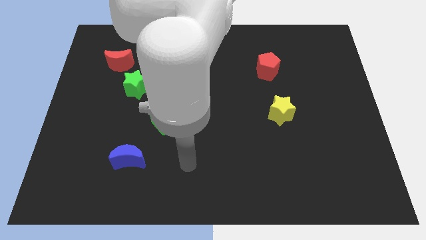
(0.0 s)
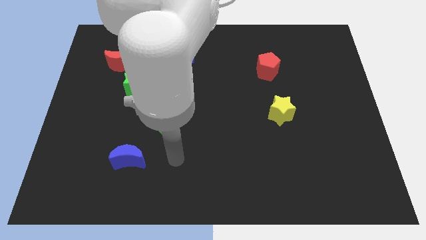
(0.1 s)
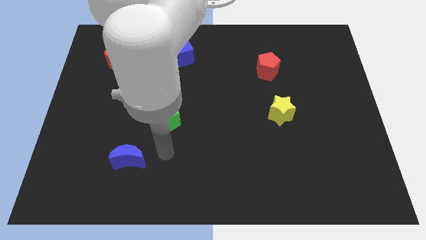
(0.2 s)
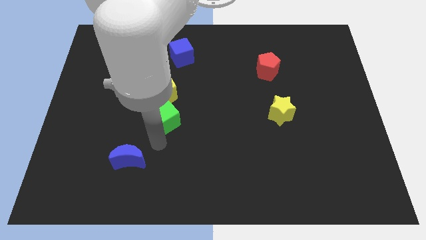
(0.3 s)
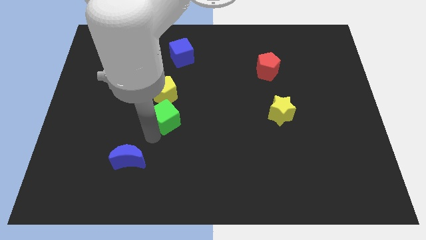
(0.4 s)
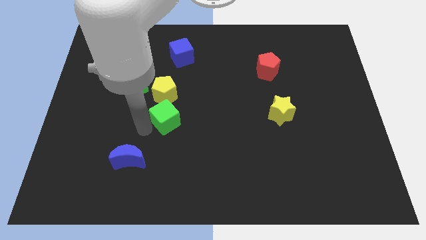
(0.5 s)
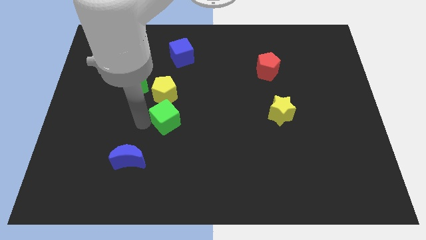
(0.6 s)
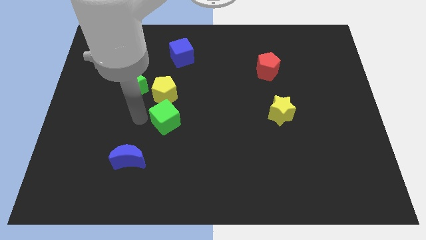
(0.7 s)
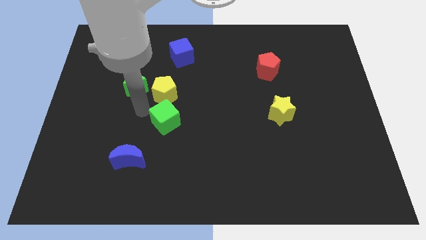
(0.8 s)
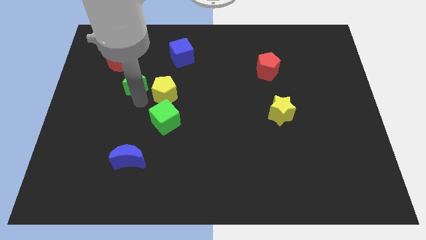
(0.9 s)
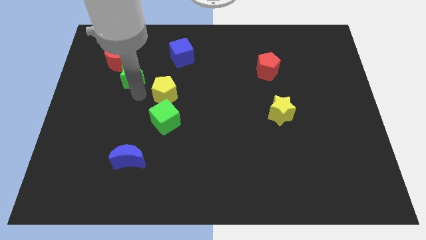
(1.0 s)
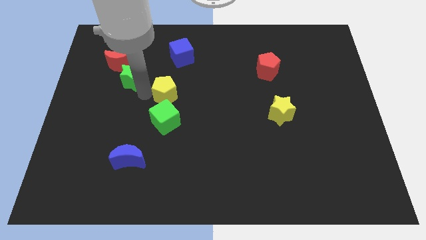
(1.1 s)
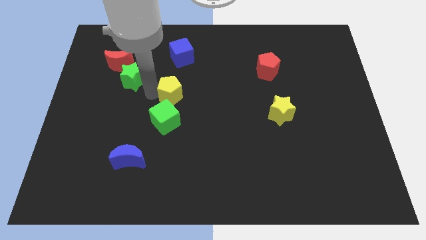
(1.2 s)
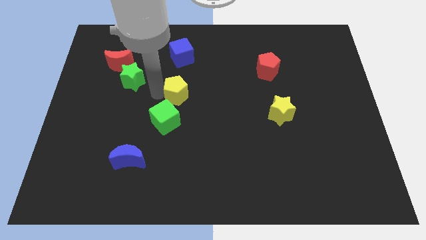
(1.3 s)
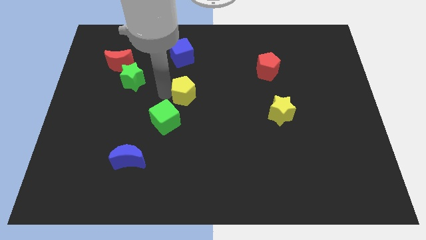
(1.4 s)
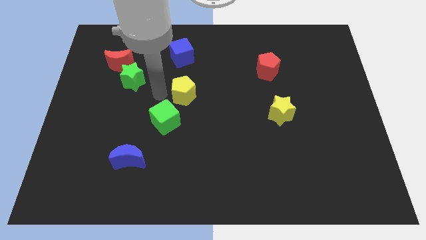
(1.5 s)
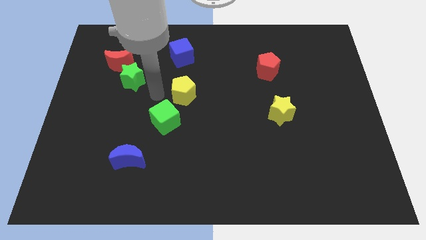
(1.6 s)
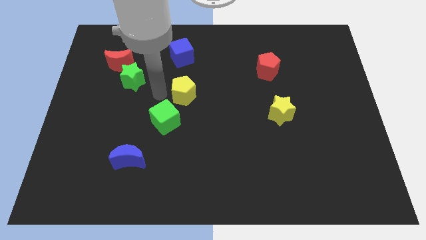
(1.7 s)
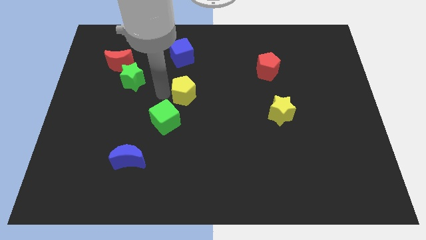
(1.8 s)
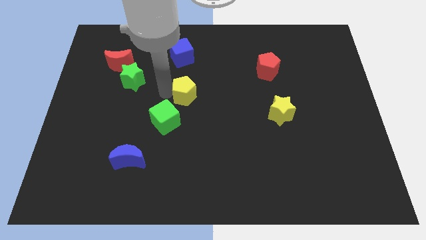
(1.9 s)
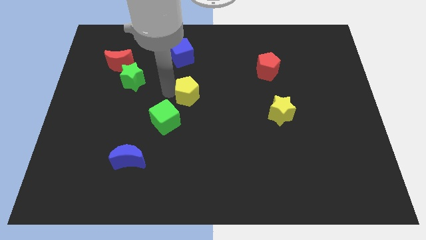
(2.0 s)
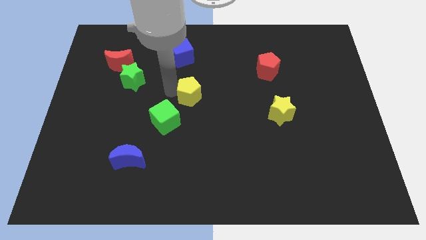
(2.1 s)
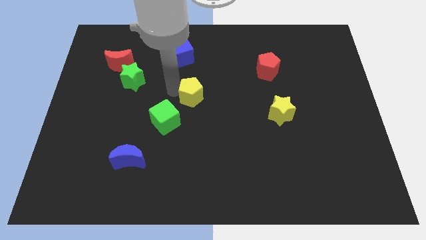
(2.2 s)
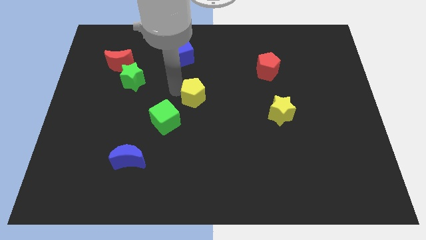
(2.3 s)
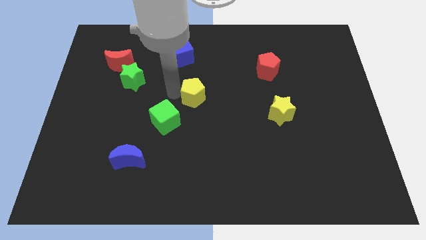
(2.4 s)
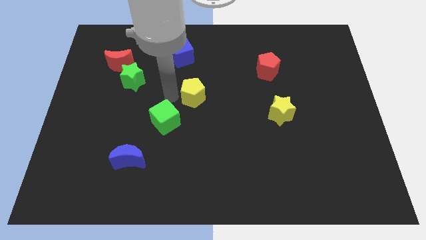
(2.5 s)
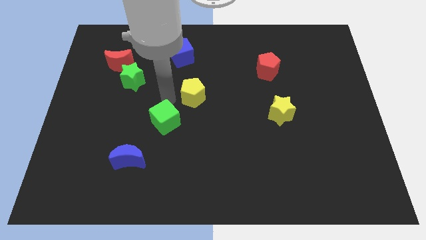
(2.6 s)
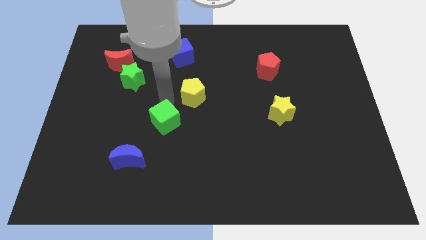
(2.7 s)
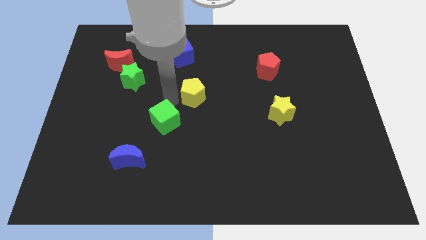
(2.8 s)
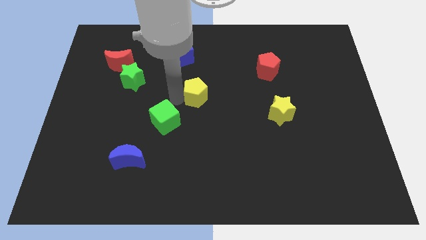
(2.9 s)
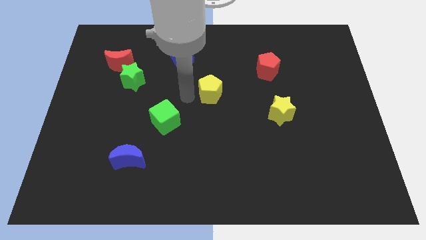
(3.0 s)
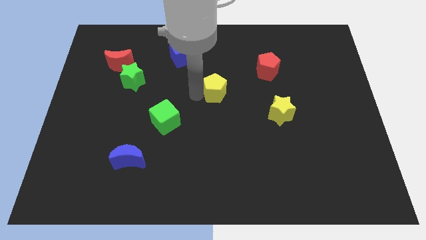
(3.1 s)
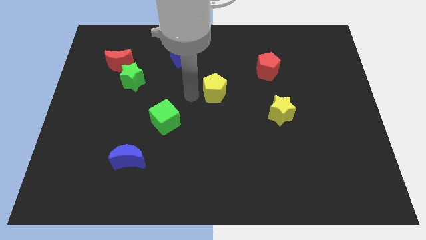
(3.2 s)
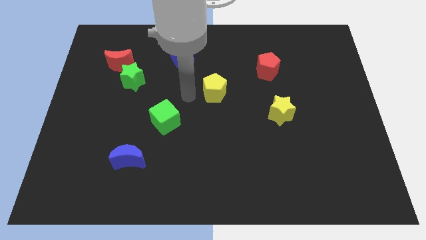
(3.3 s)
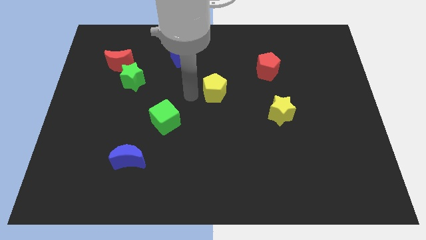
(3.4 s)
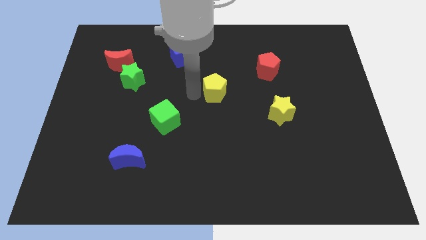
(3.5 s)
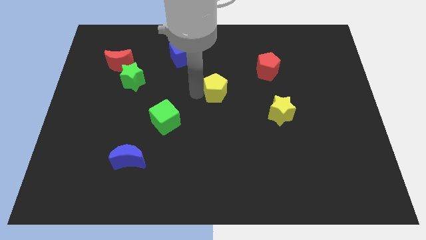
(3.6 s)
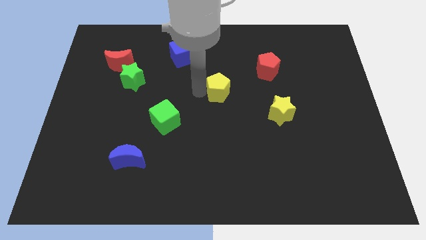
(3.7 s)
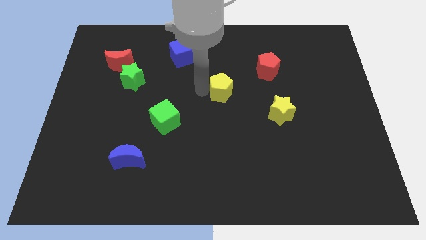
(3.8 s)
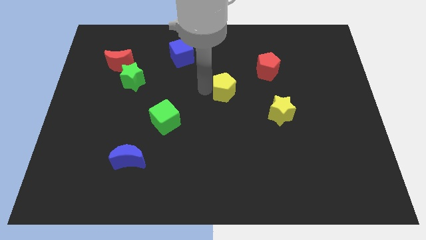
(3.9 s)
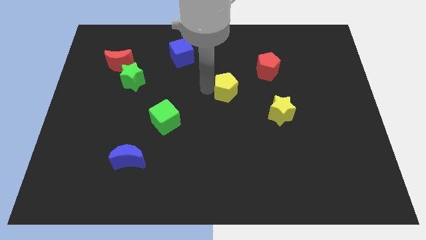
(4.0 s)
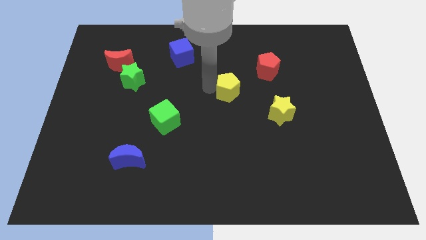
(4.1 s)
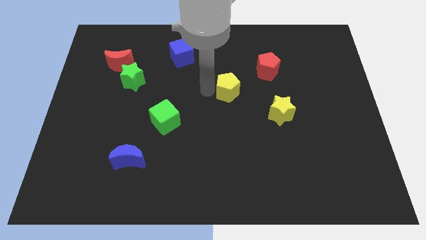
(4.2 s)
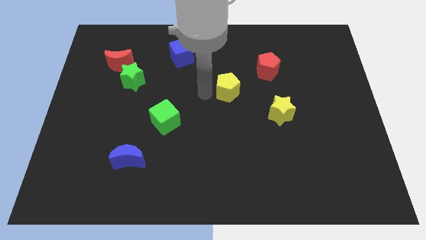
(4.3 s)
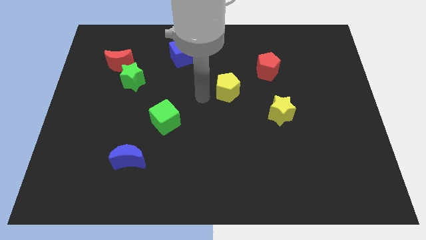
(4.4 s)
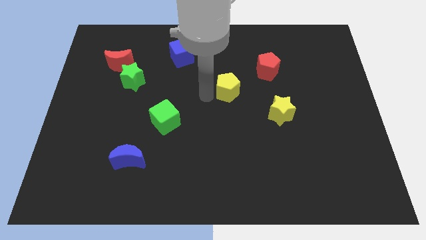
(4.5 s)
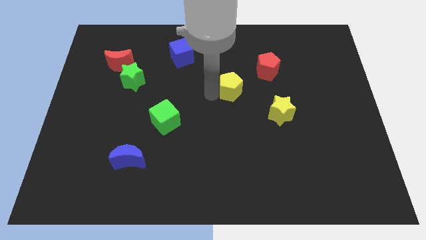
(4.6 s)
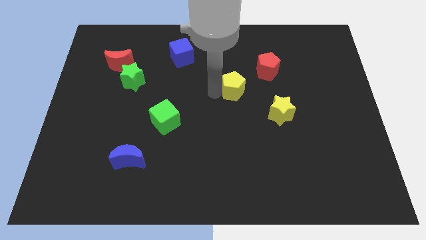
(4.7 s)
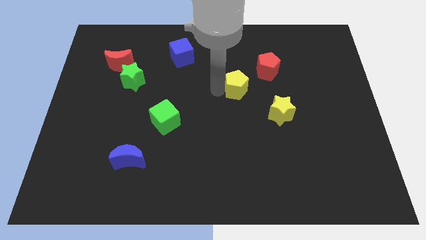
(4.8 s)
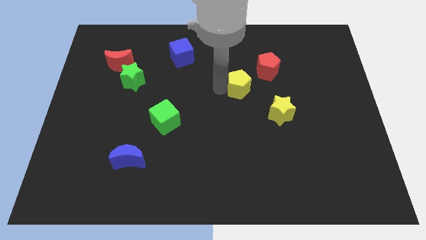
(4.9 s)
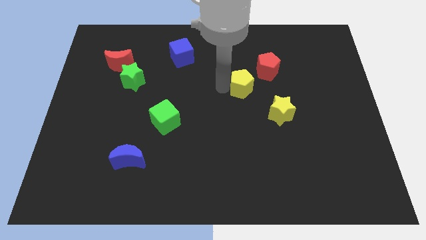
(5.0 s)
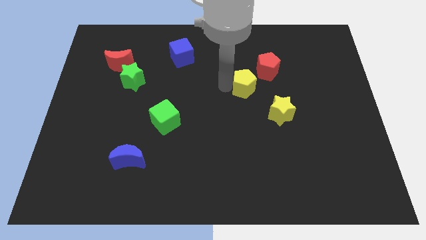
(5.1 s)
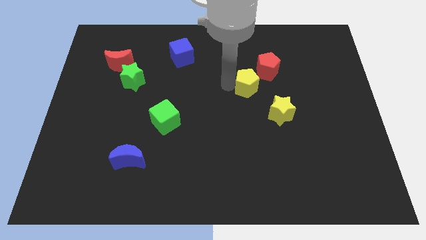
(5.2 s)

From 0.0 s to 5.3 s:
move the yellow pentagon to the right

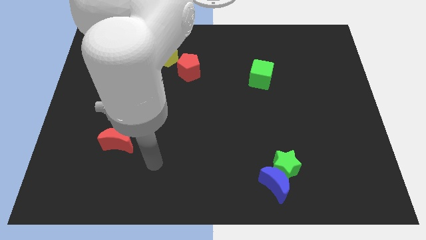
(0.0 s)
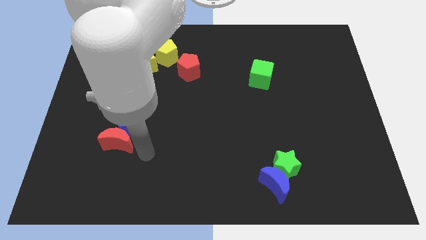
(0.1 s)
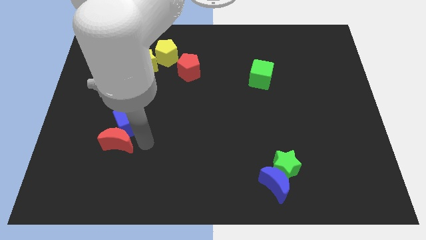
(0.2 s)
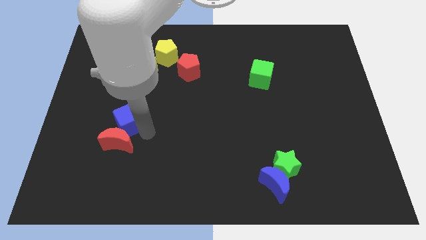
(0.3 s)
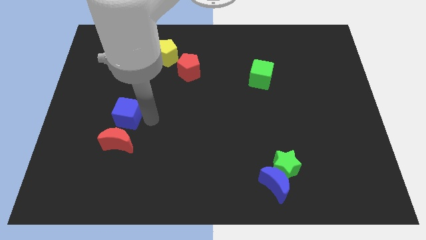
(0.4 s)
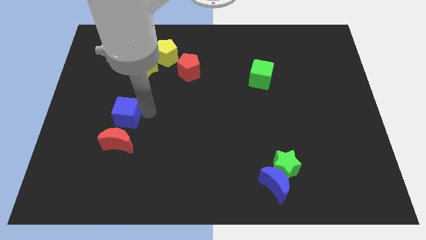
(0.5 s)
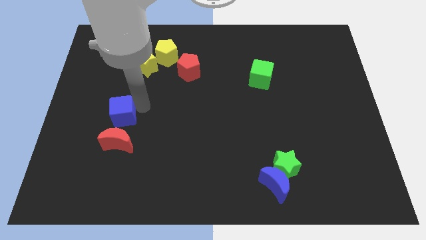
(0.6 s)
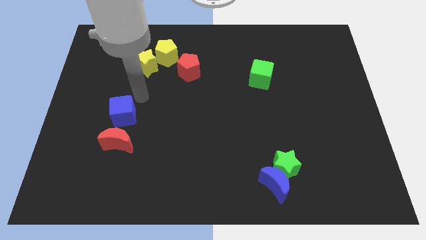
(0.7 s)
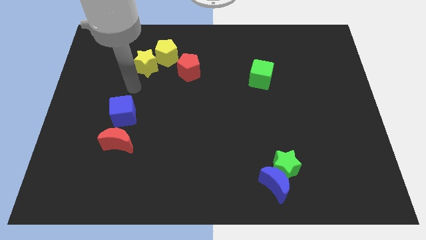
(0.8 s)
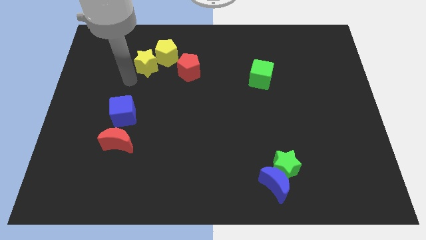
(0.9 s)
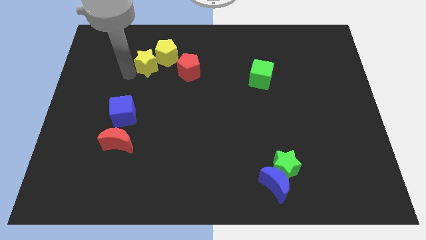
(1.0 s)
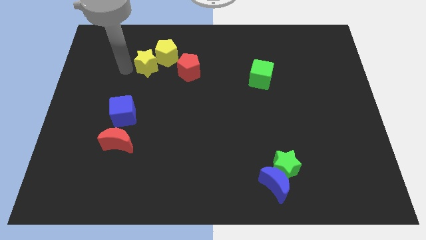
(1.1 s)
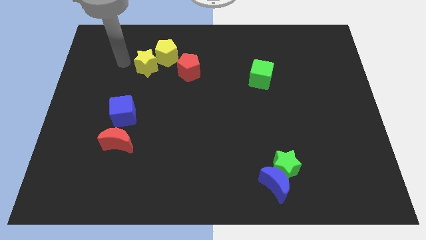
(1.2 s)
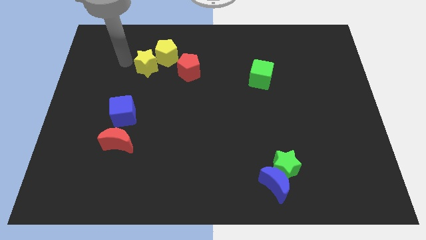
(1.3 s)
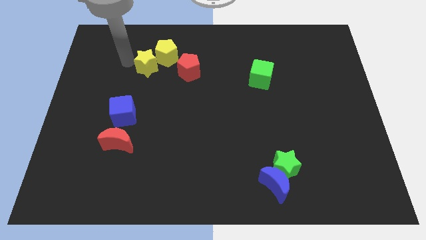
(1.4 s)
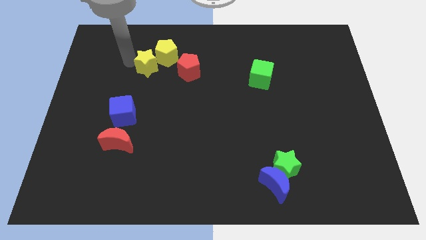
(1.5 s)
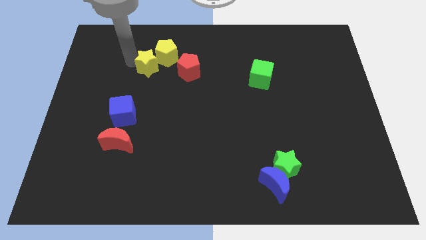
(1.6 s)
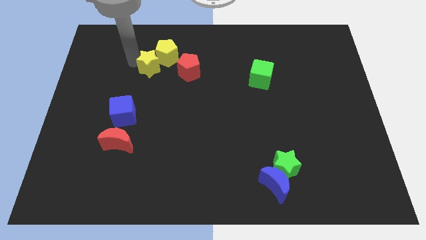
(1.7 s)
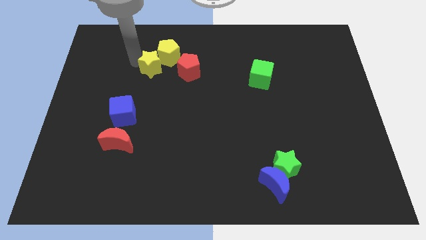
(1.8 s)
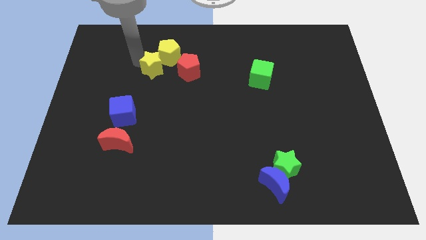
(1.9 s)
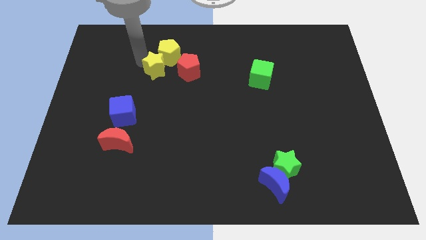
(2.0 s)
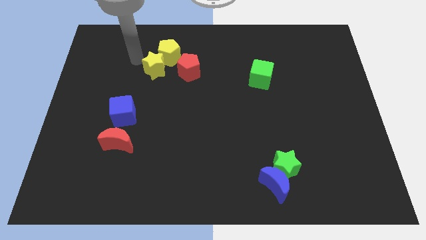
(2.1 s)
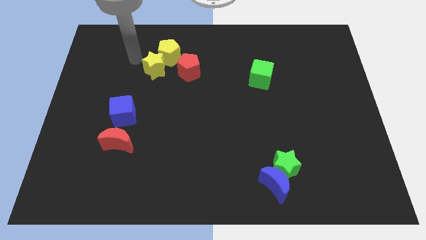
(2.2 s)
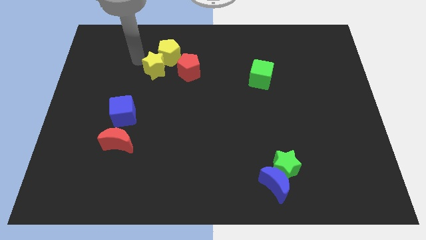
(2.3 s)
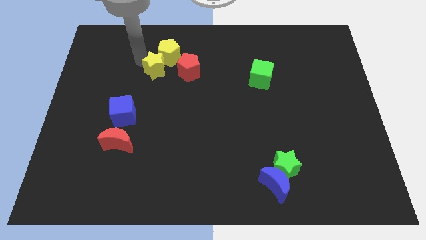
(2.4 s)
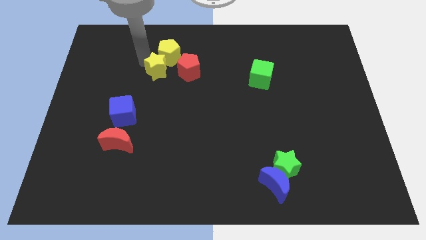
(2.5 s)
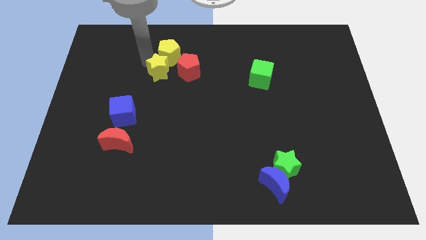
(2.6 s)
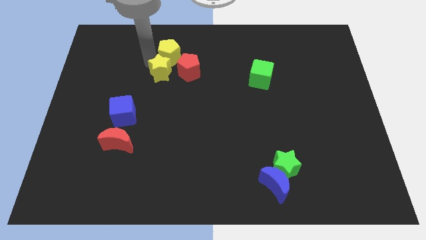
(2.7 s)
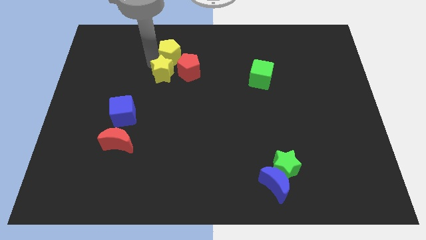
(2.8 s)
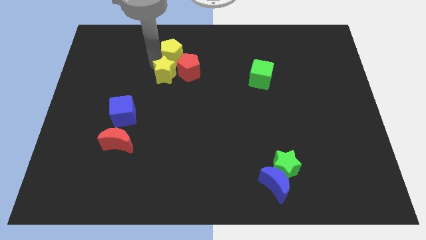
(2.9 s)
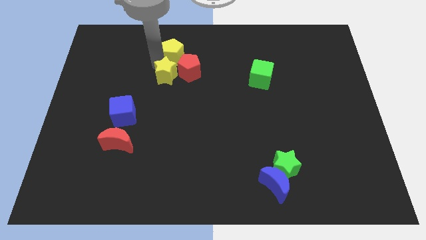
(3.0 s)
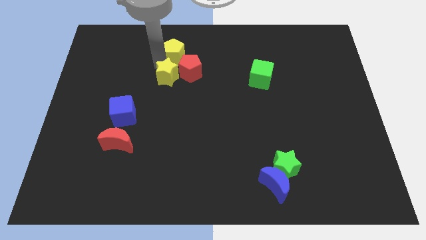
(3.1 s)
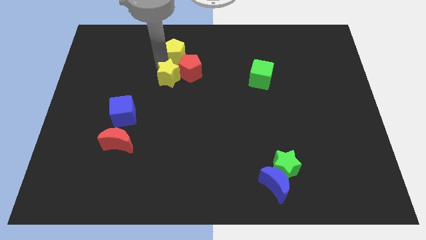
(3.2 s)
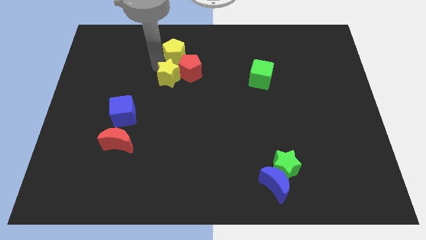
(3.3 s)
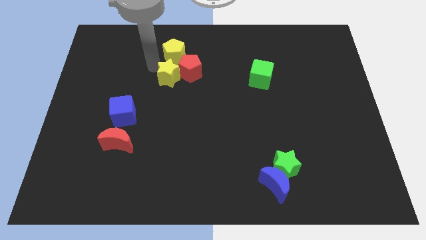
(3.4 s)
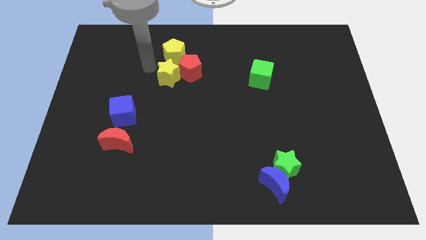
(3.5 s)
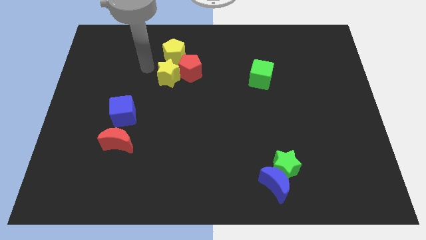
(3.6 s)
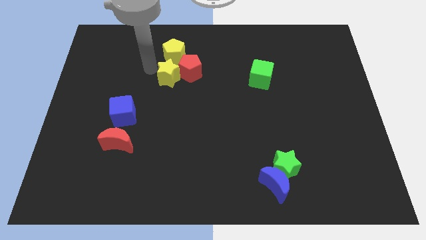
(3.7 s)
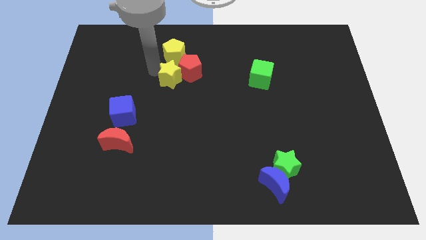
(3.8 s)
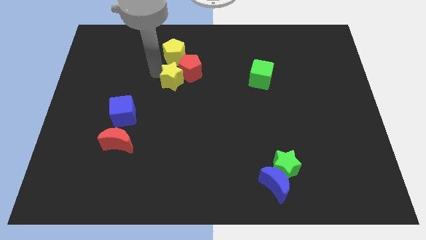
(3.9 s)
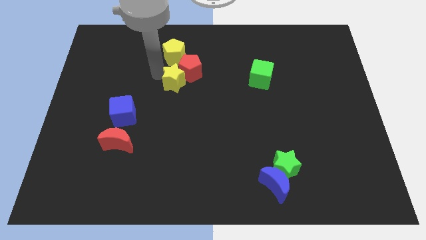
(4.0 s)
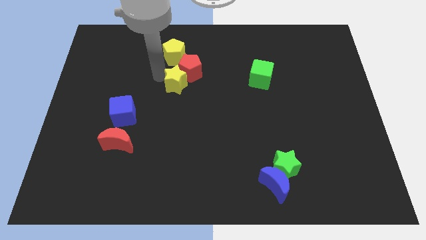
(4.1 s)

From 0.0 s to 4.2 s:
slide the yellow star right slightly
